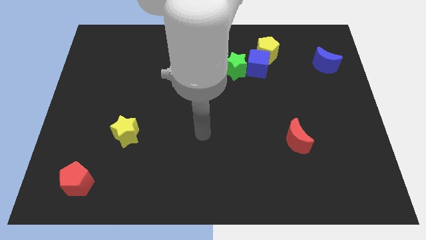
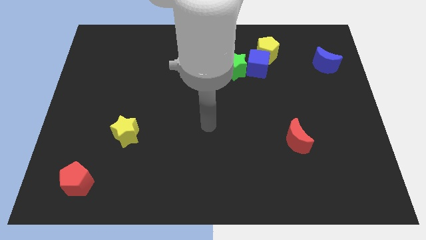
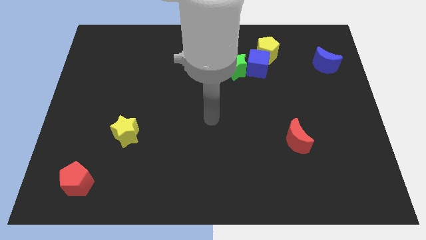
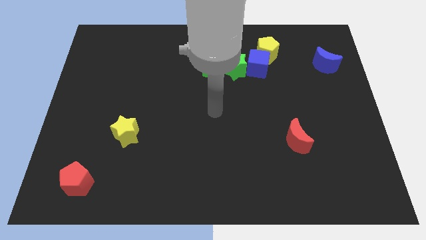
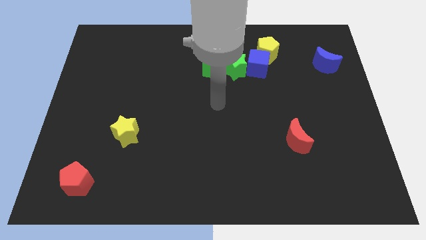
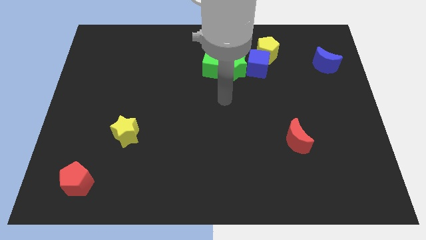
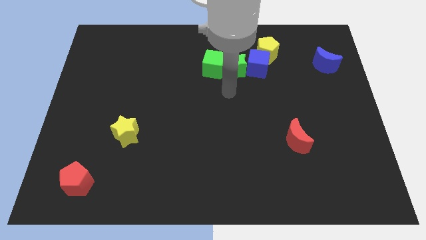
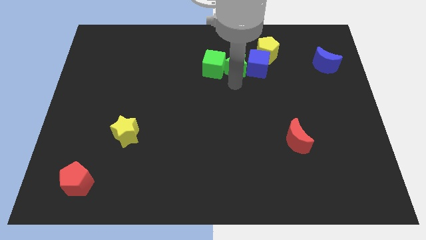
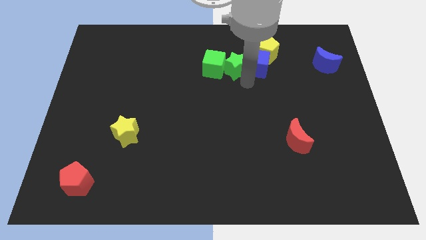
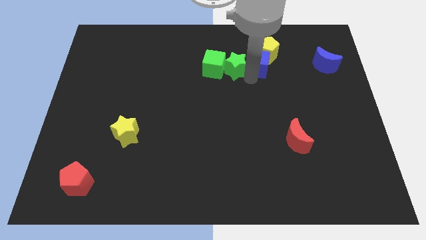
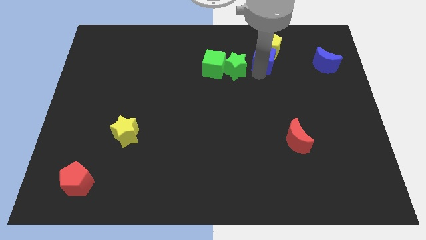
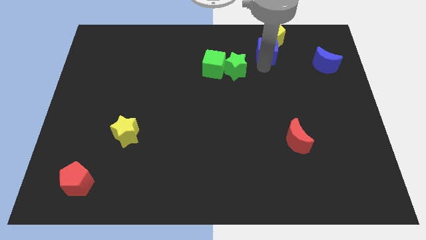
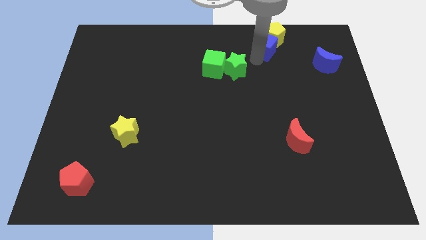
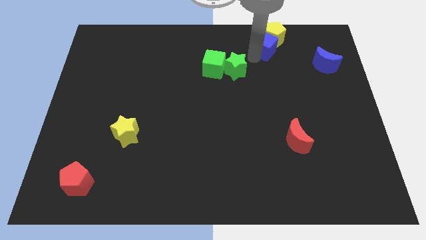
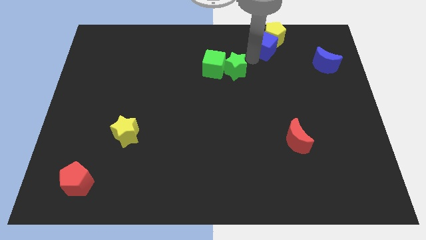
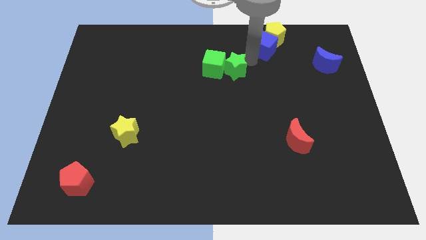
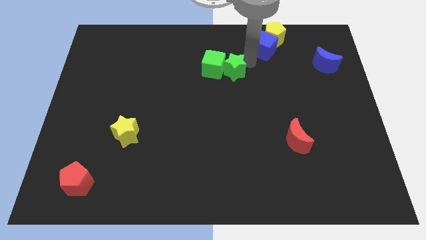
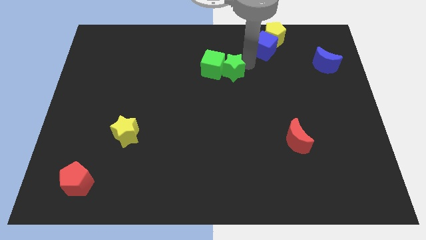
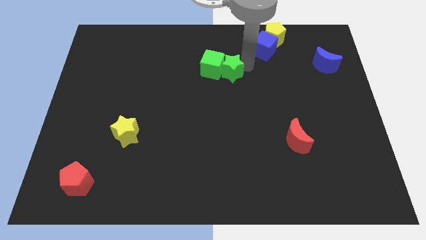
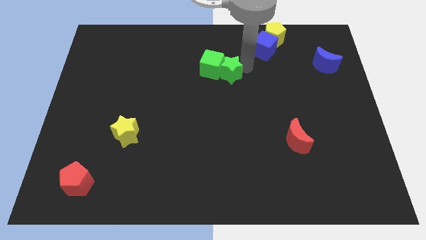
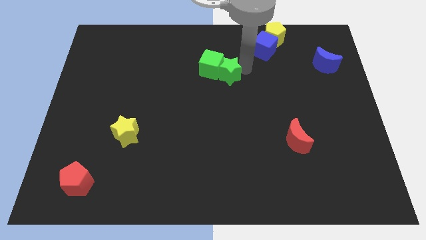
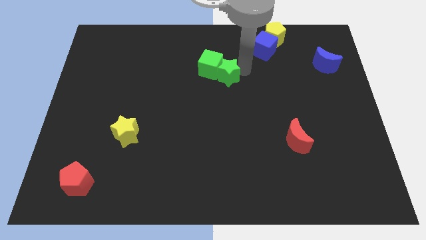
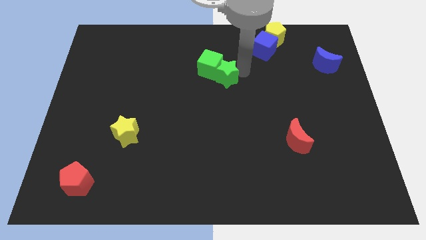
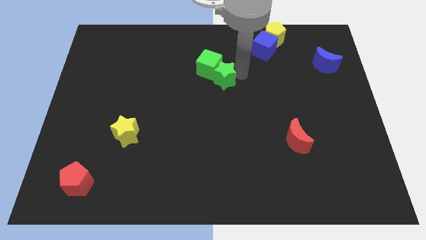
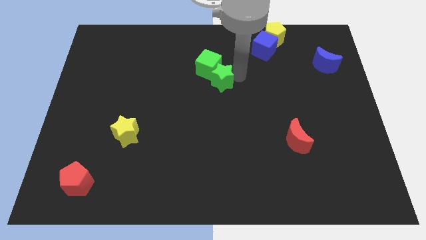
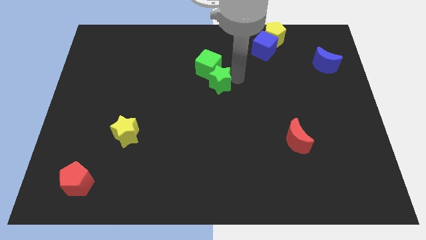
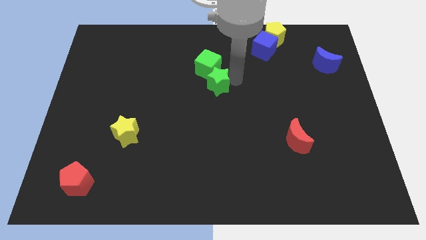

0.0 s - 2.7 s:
move the green star downwards and to the left diagonally a bit

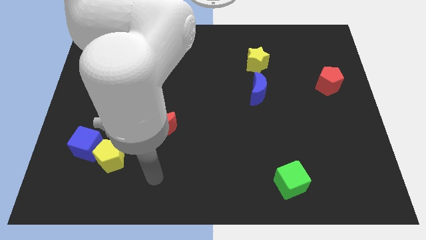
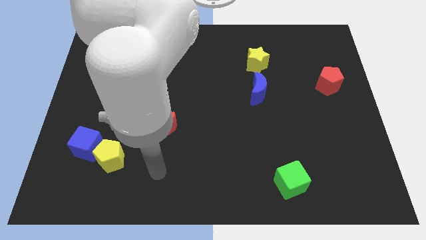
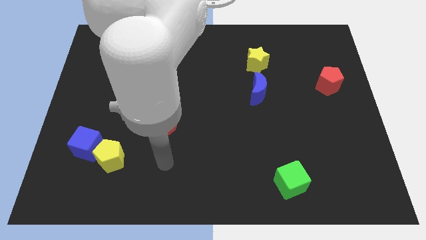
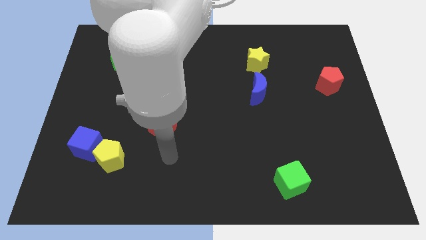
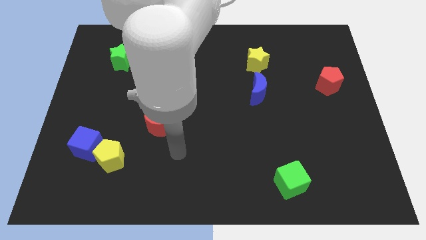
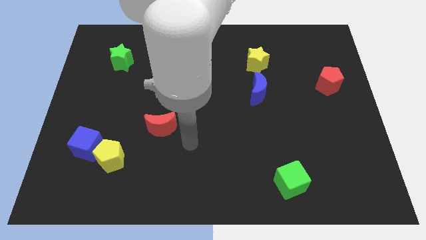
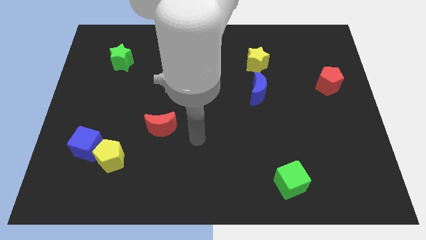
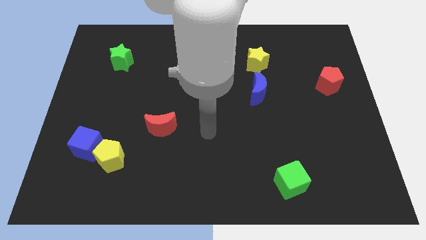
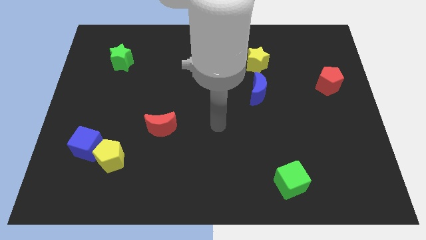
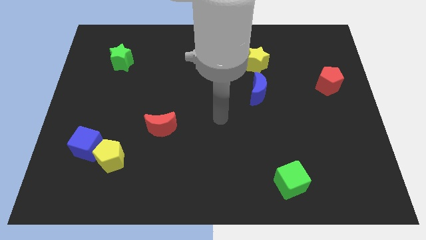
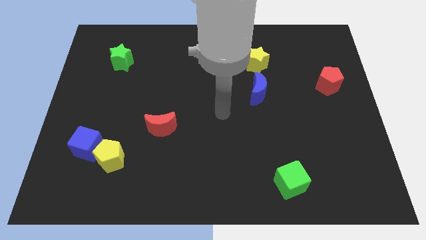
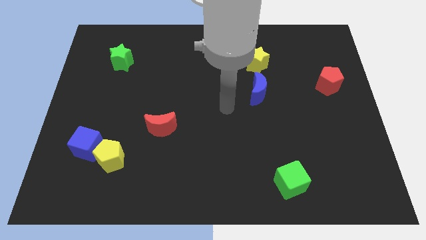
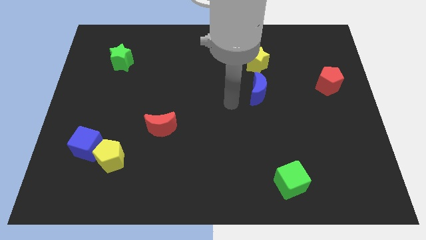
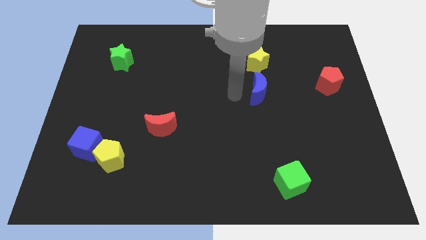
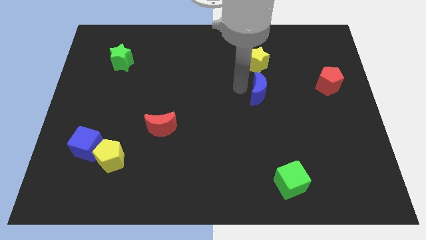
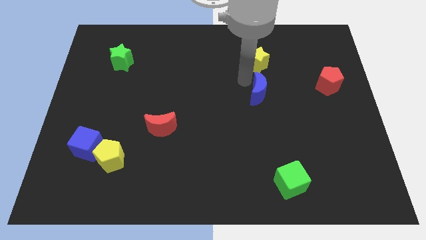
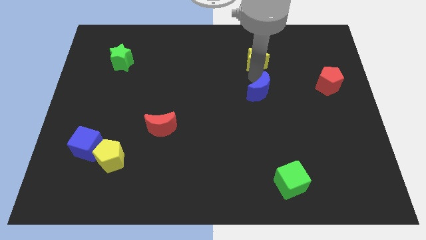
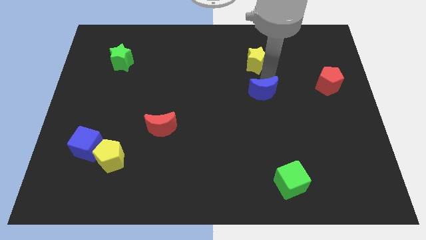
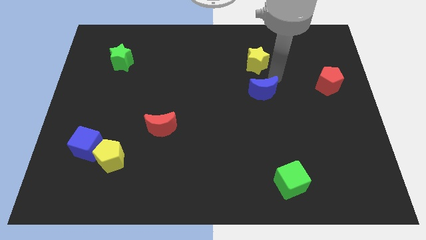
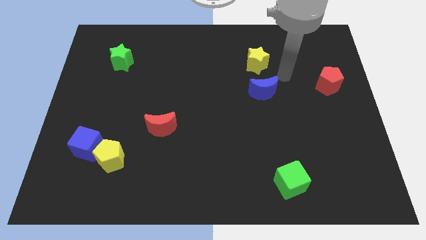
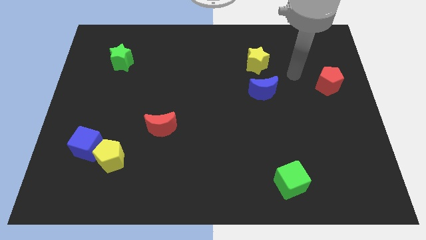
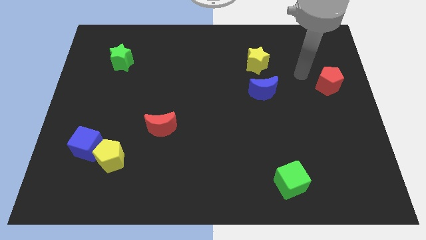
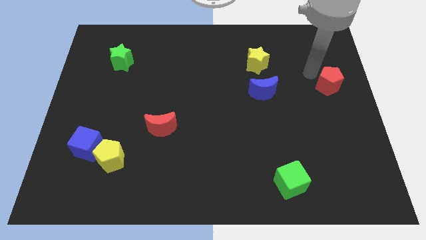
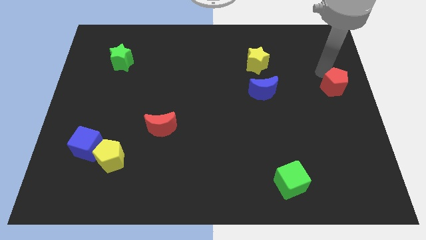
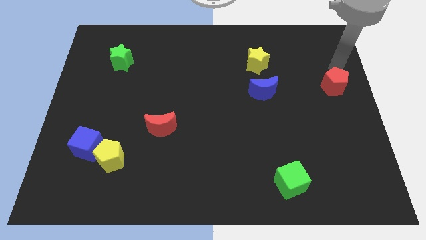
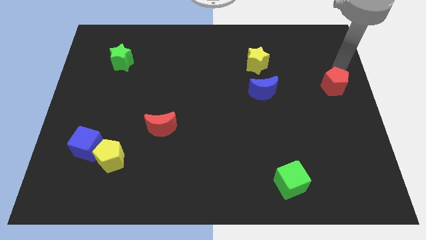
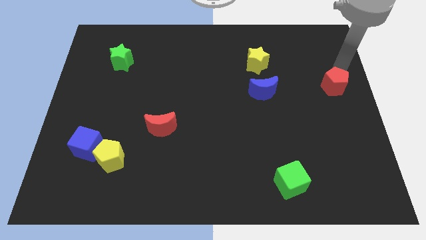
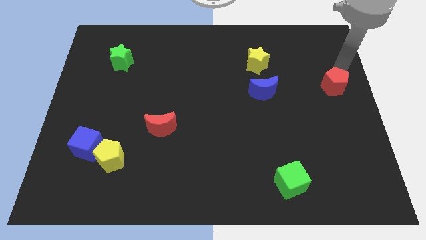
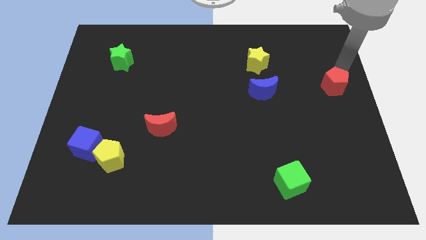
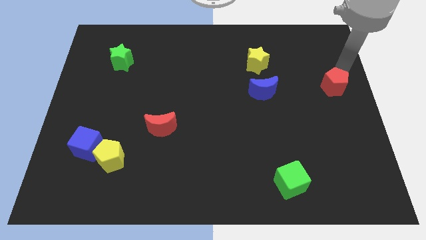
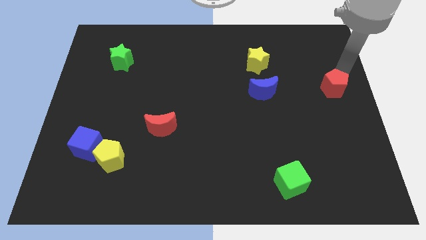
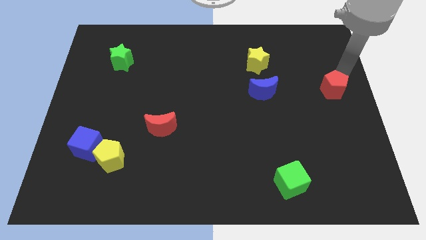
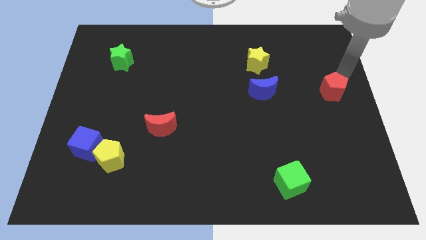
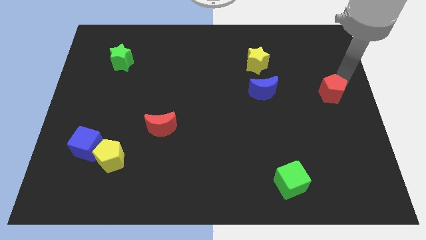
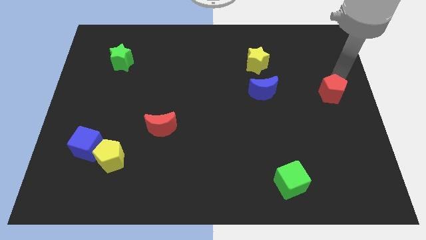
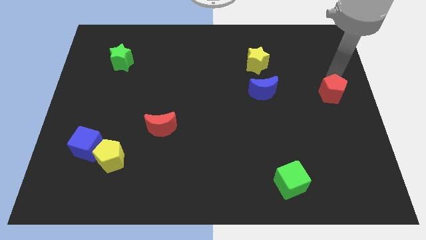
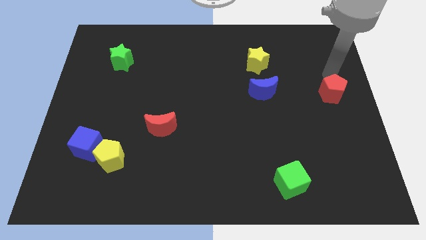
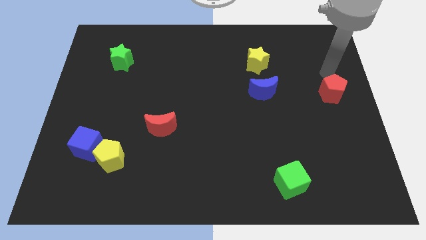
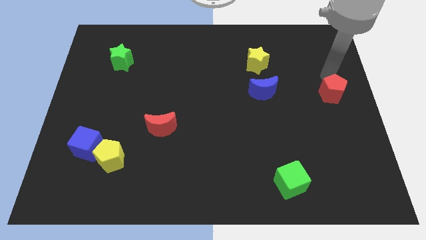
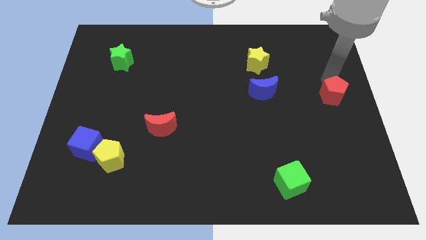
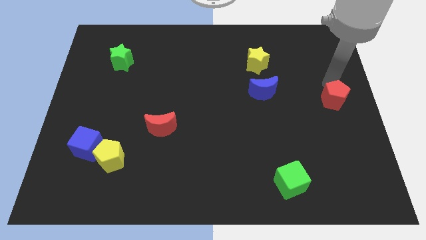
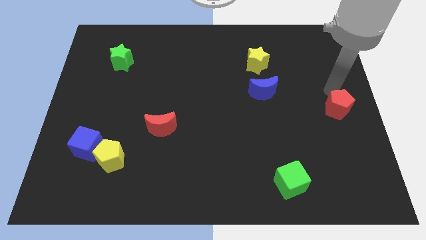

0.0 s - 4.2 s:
move the red pentagon downwards a bit

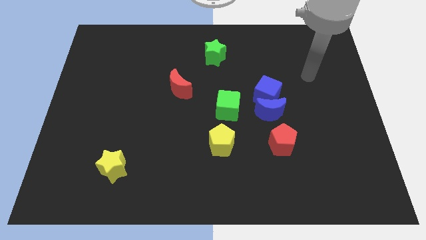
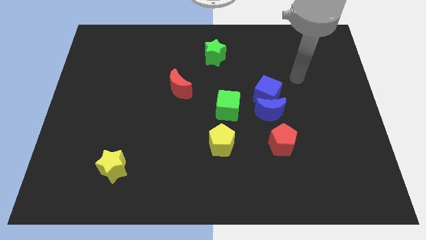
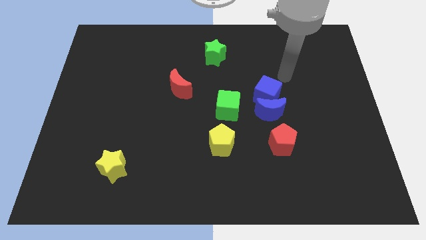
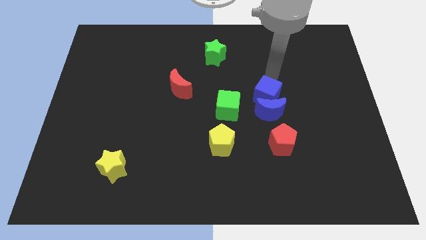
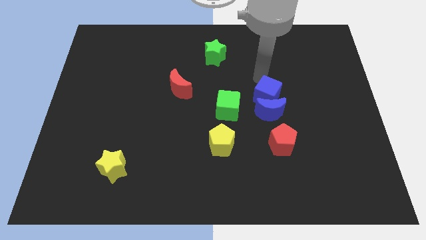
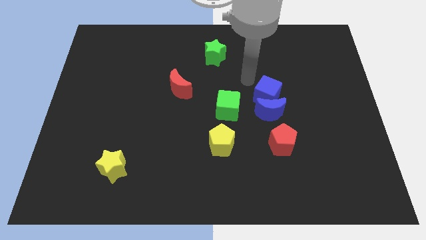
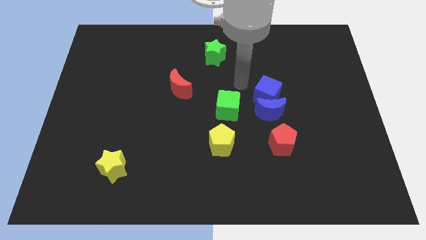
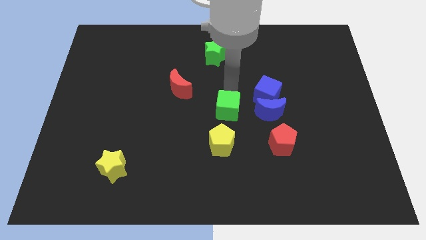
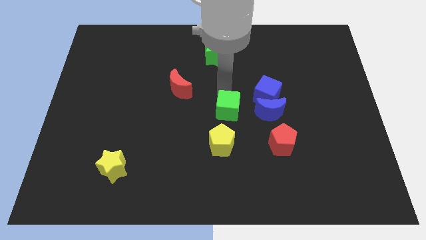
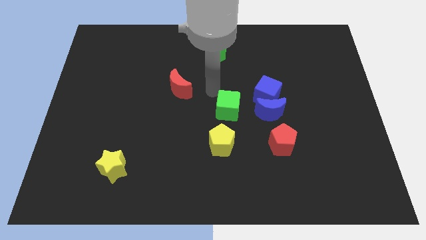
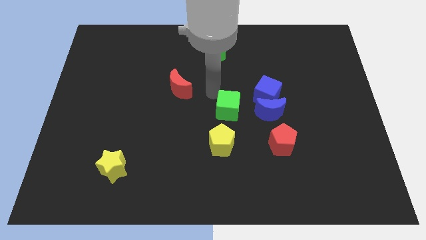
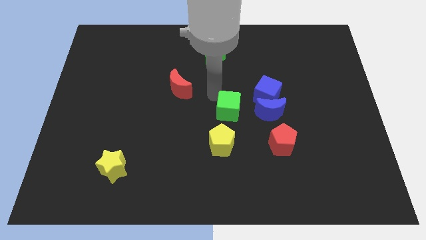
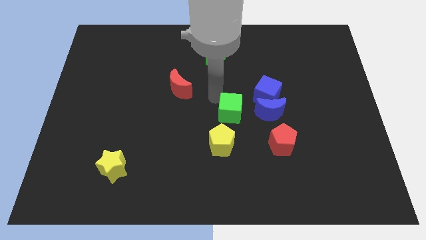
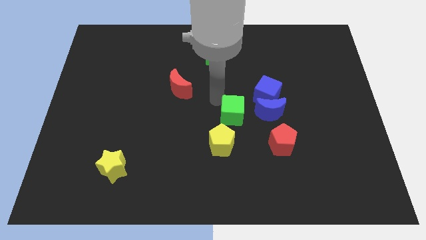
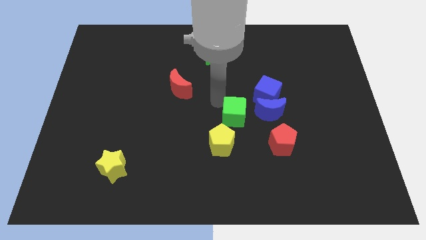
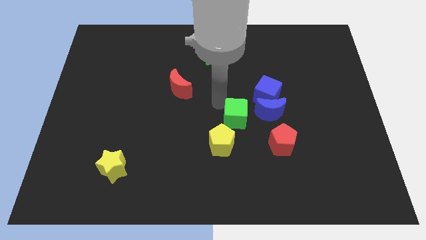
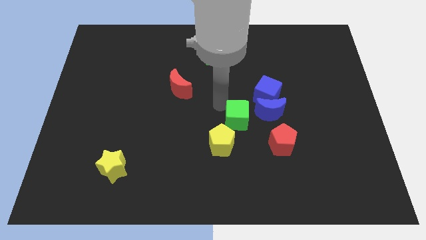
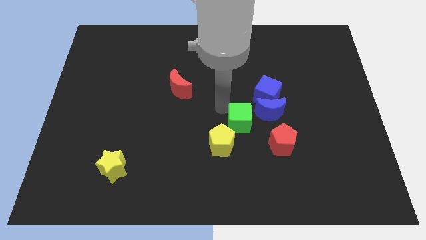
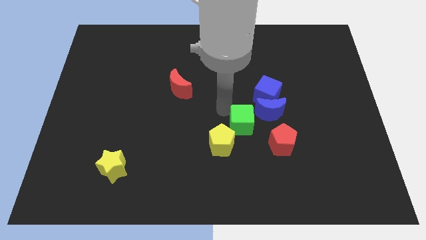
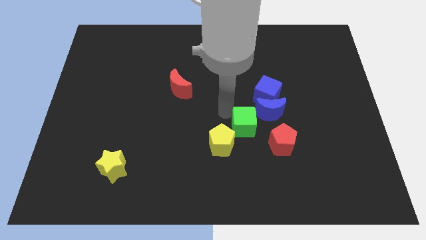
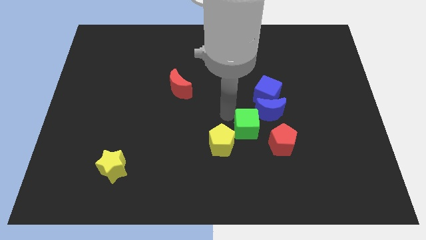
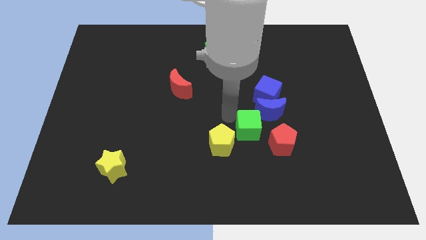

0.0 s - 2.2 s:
slightly move the green cube down and to the right
